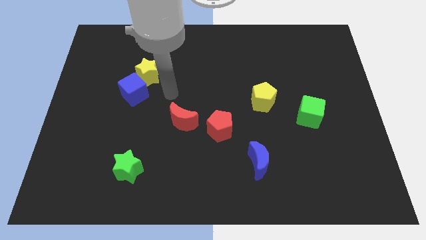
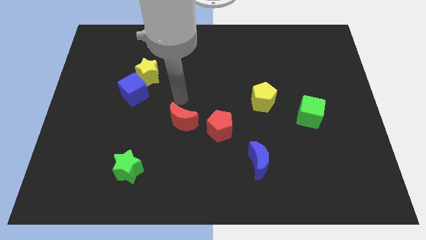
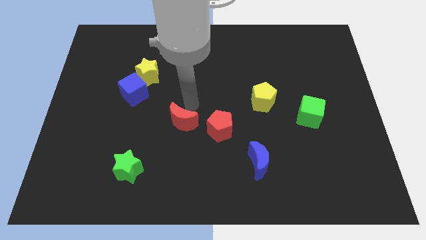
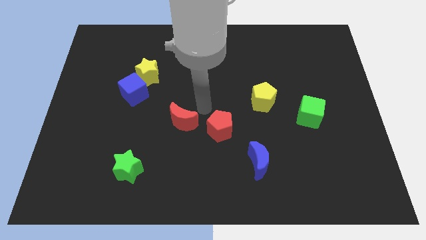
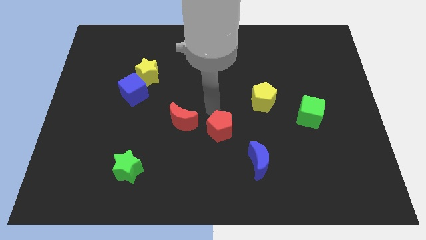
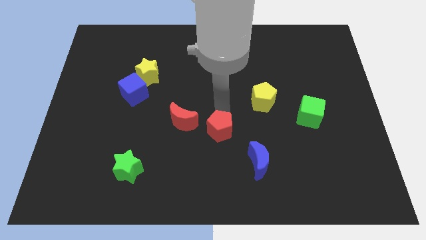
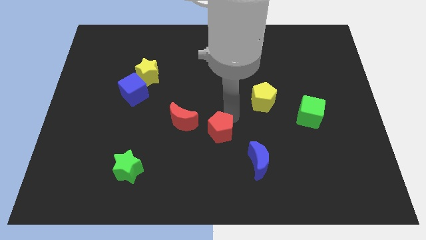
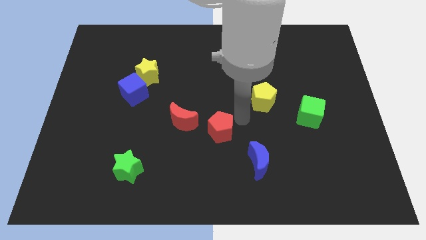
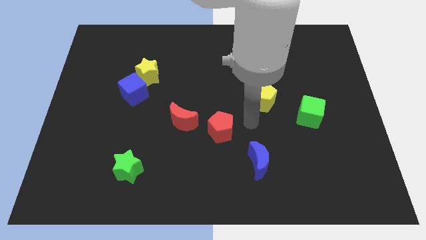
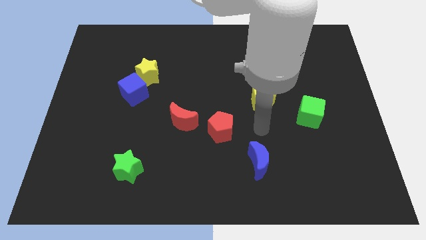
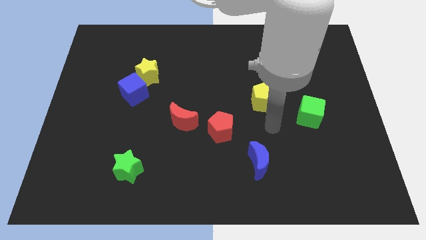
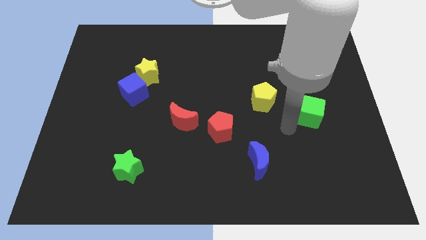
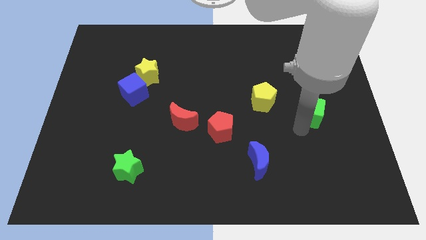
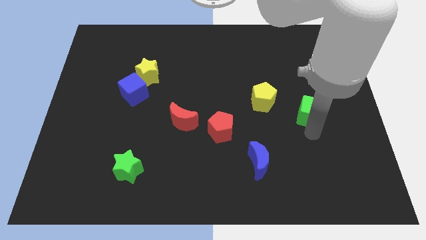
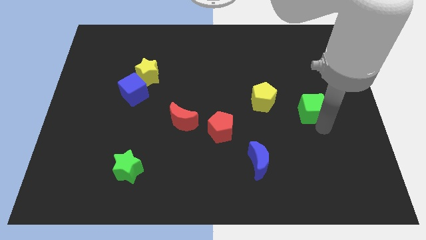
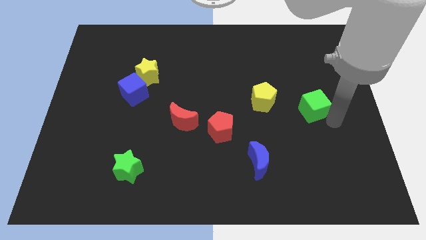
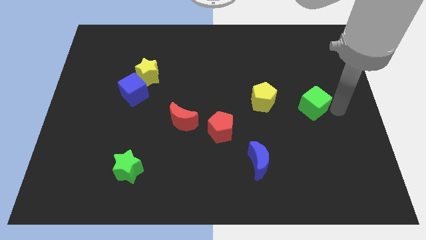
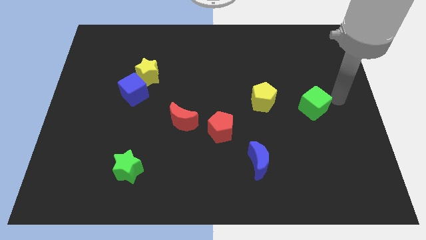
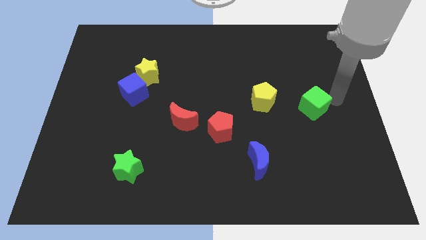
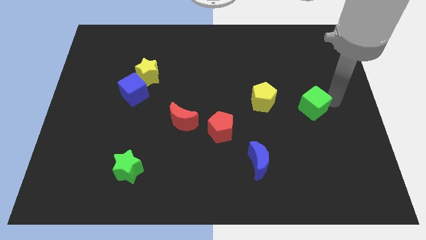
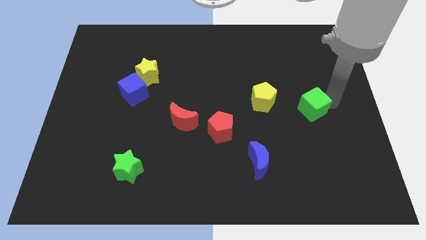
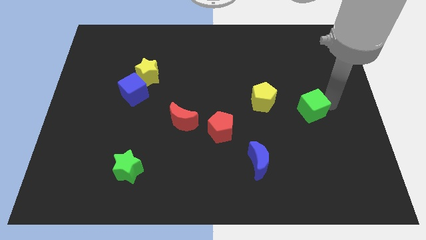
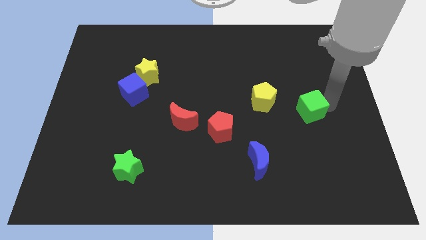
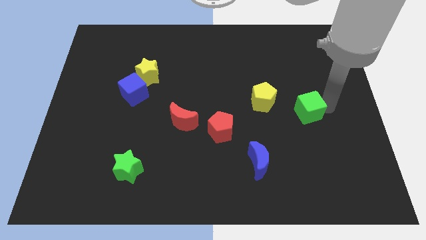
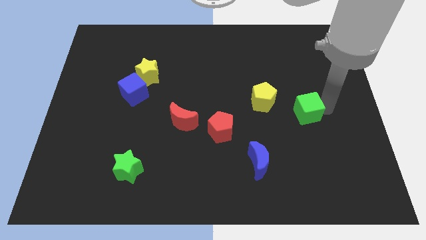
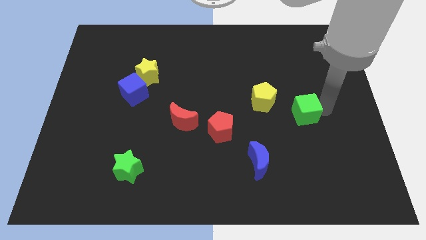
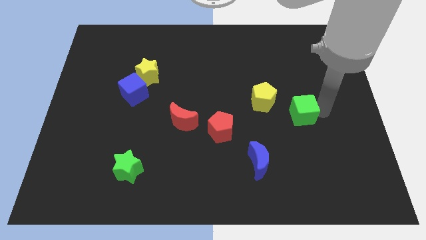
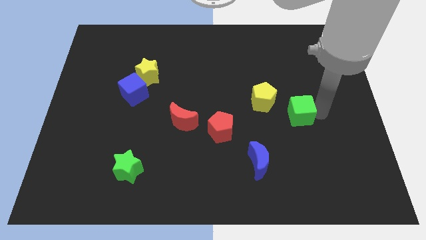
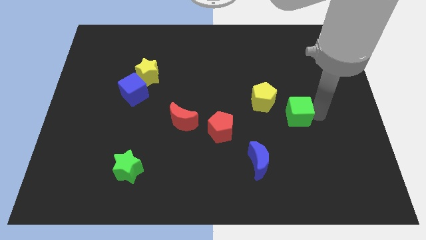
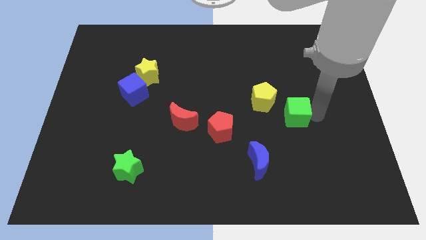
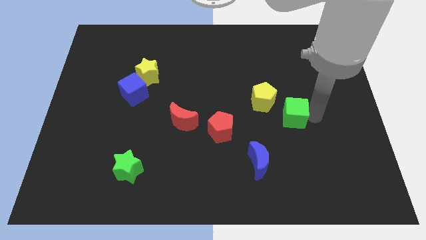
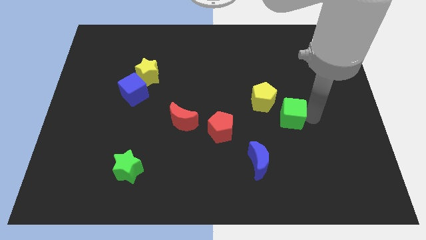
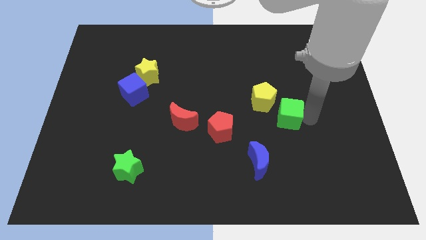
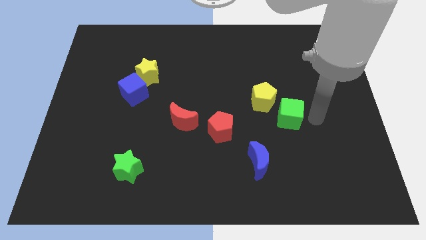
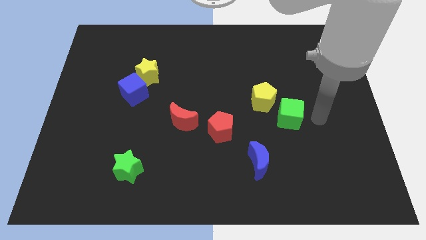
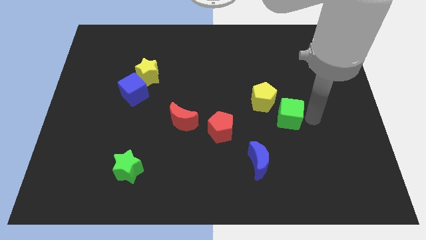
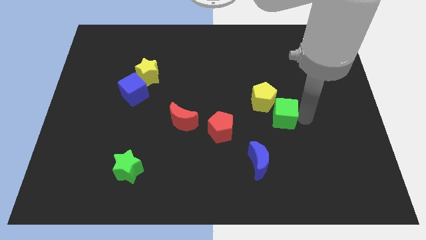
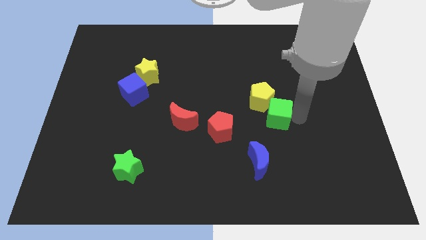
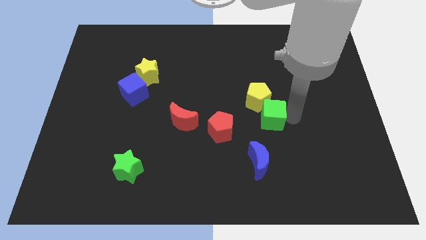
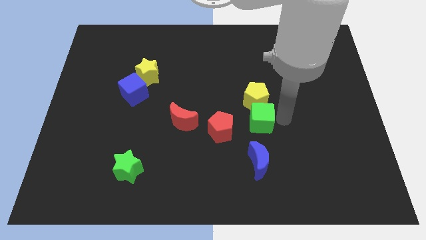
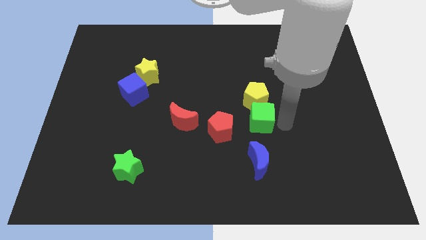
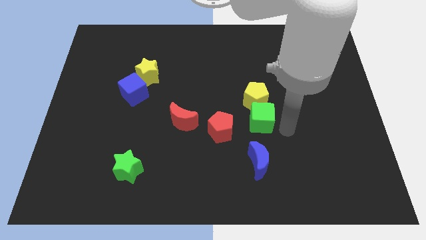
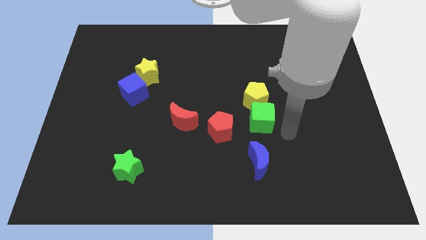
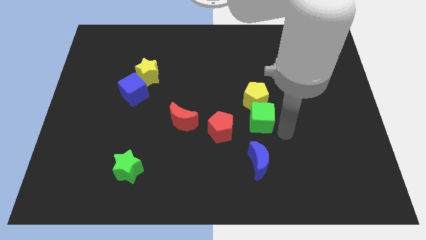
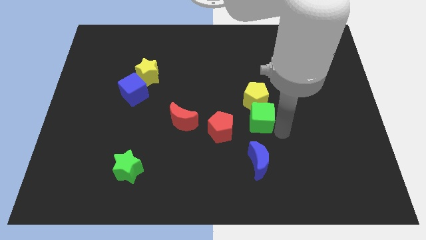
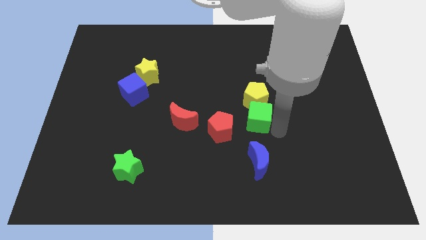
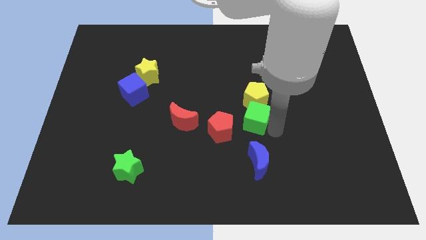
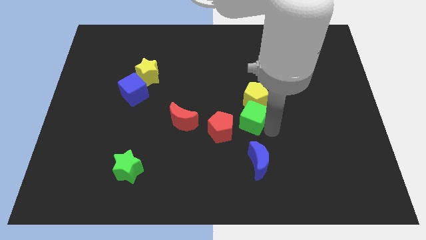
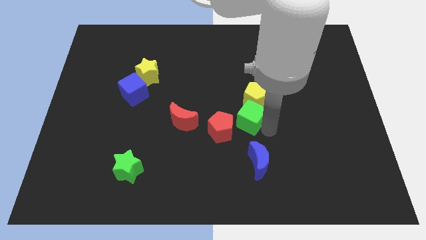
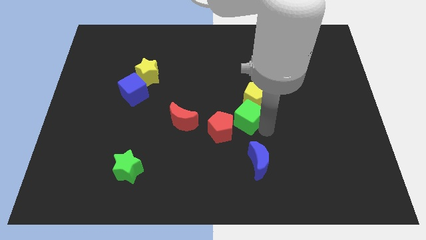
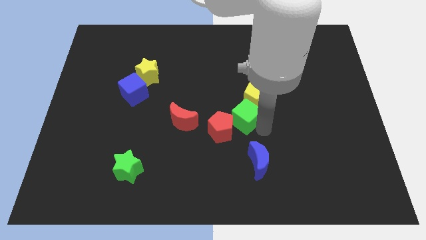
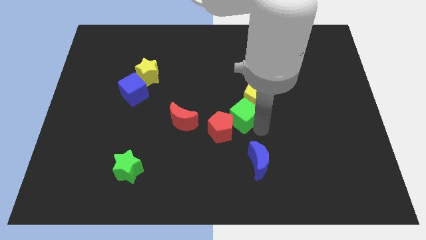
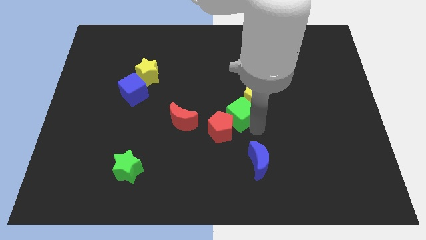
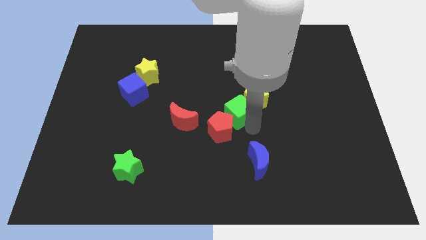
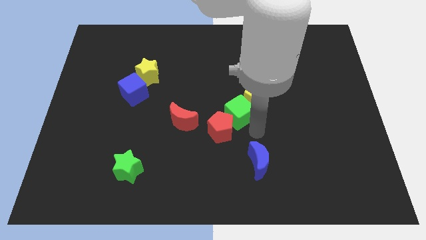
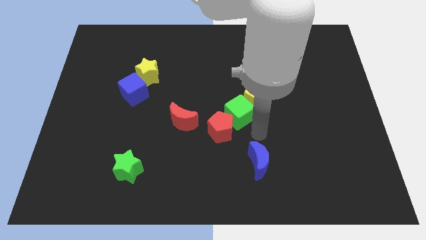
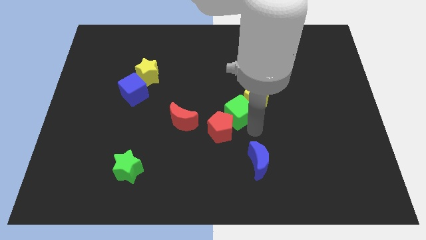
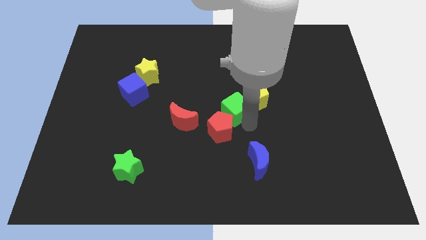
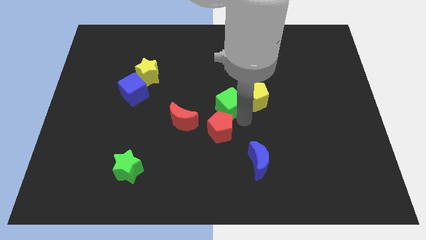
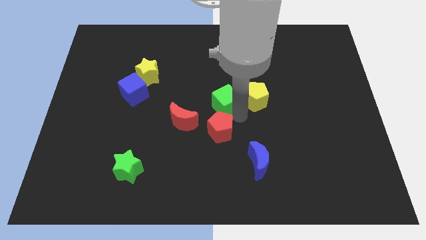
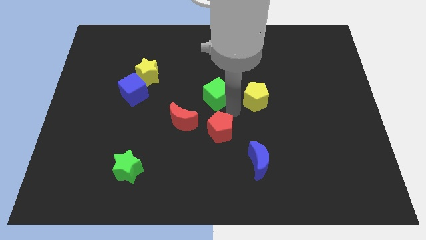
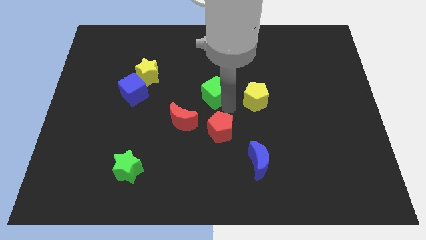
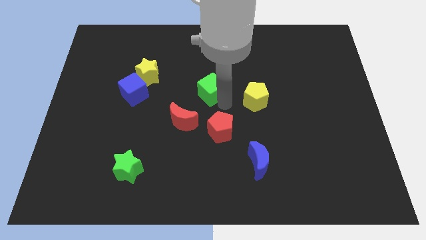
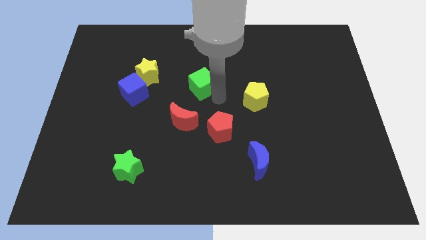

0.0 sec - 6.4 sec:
slide the green cube right of the yellow star
